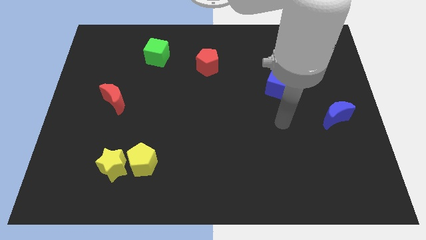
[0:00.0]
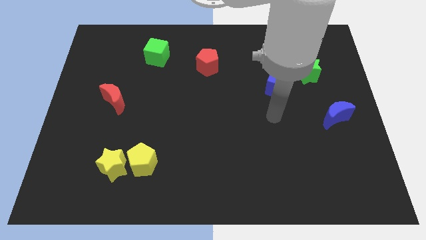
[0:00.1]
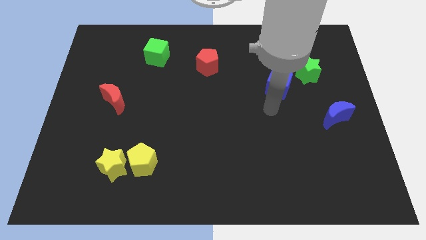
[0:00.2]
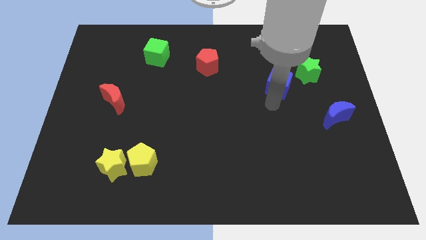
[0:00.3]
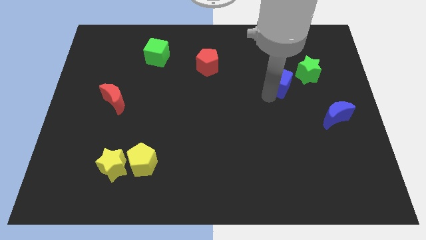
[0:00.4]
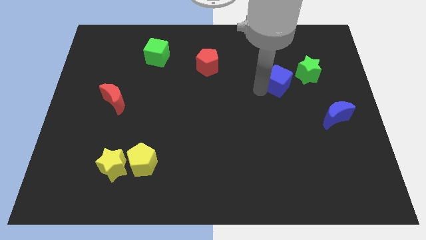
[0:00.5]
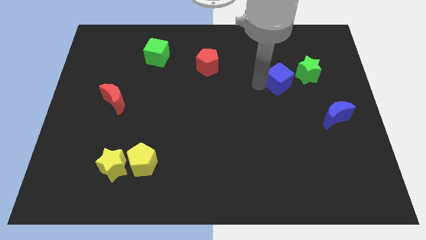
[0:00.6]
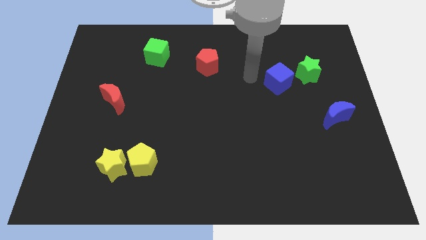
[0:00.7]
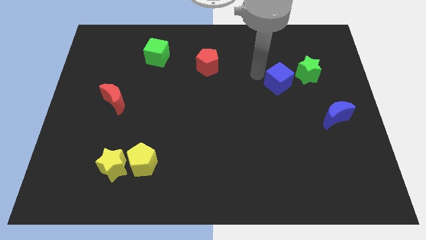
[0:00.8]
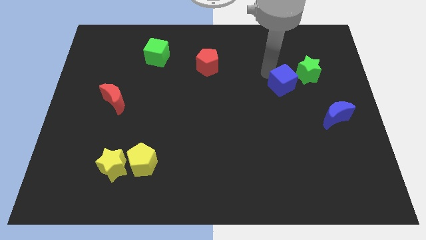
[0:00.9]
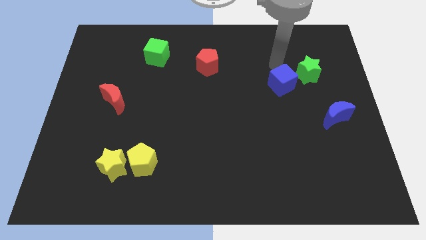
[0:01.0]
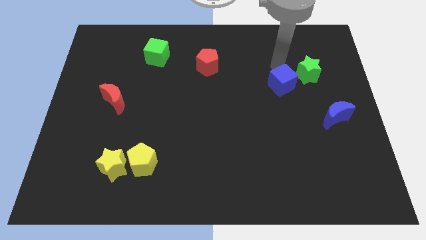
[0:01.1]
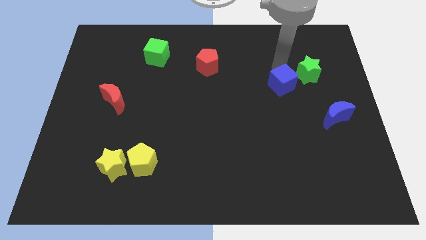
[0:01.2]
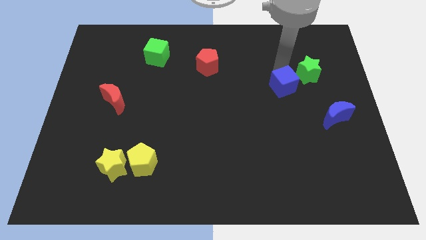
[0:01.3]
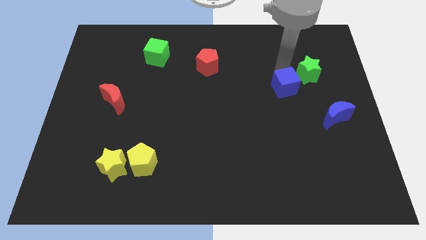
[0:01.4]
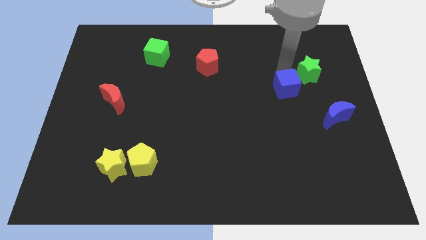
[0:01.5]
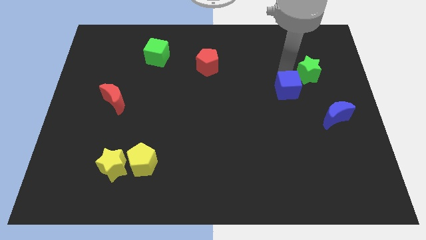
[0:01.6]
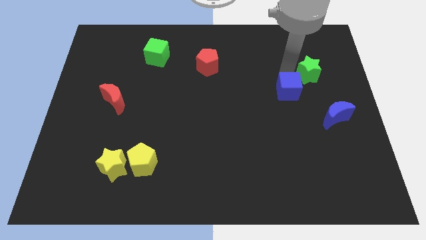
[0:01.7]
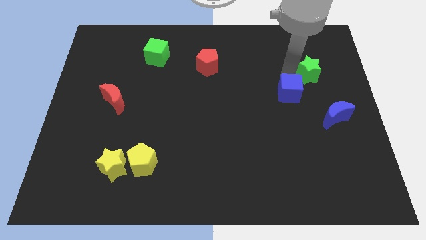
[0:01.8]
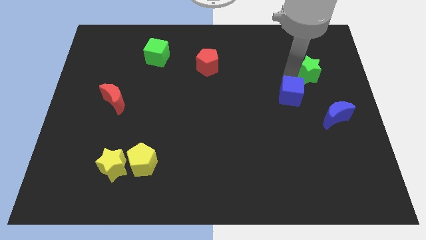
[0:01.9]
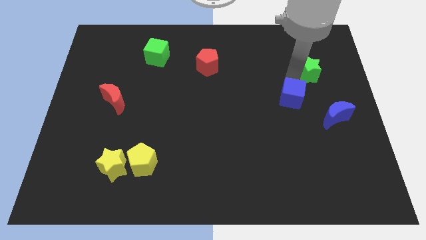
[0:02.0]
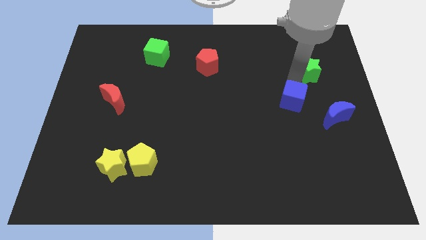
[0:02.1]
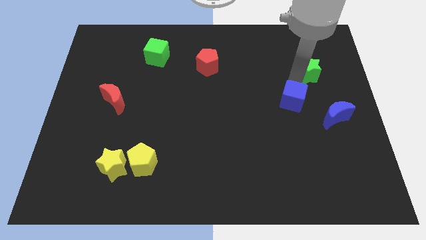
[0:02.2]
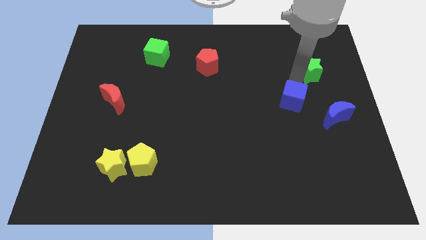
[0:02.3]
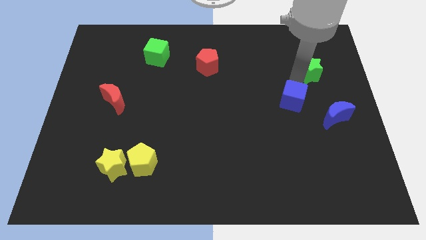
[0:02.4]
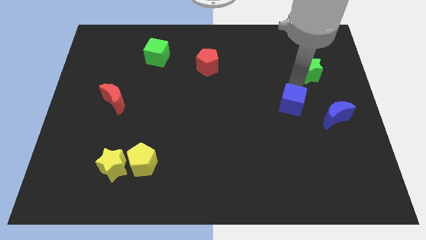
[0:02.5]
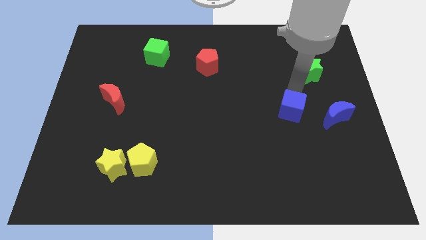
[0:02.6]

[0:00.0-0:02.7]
slightly slide the blue cube downwards

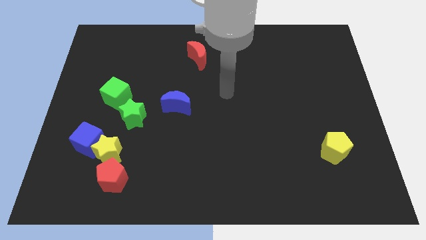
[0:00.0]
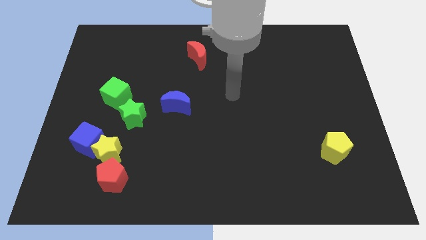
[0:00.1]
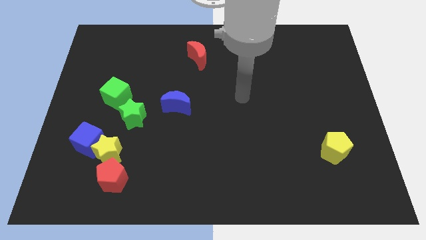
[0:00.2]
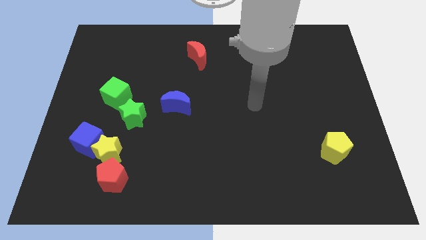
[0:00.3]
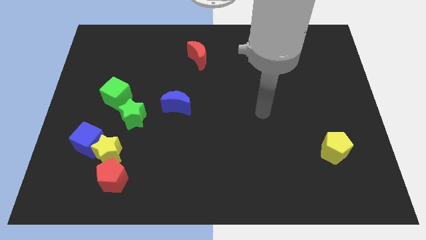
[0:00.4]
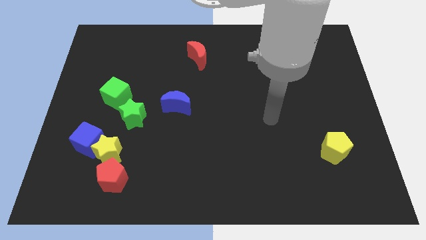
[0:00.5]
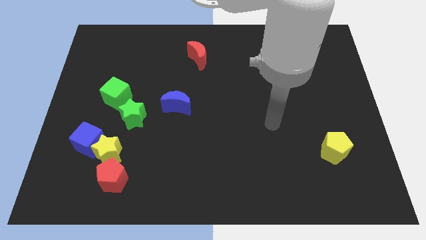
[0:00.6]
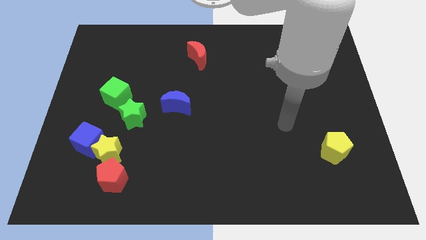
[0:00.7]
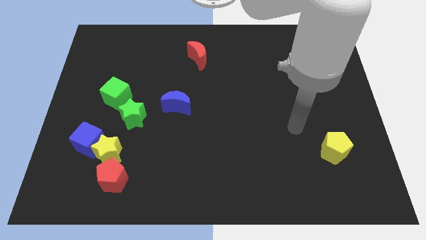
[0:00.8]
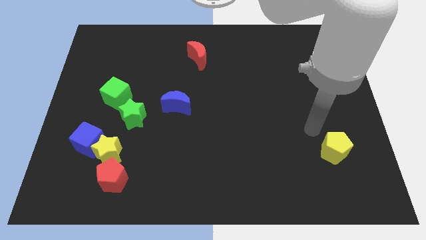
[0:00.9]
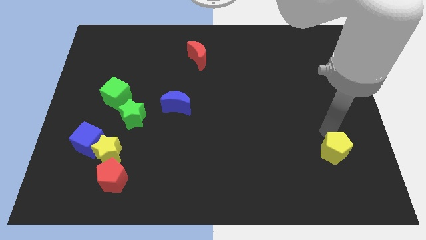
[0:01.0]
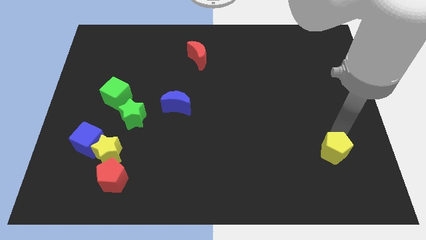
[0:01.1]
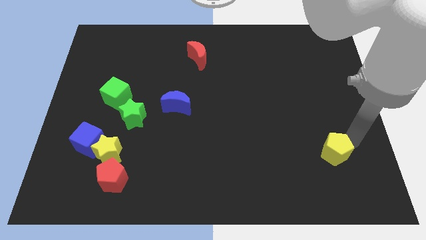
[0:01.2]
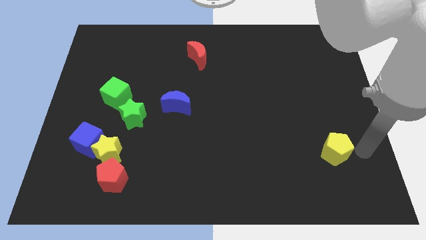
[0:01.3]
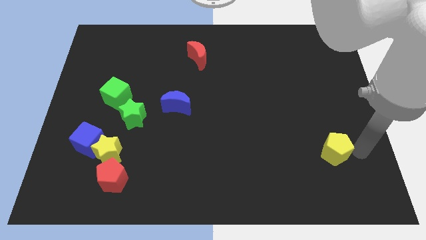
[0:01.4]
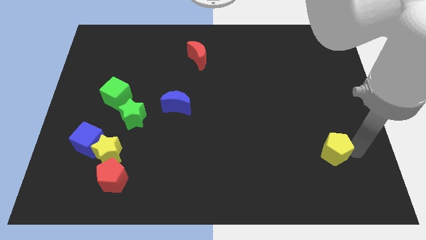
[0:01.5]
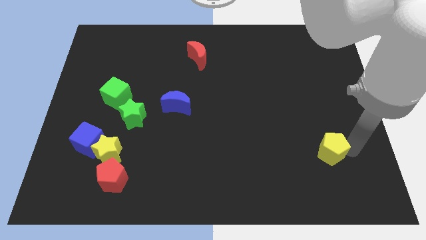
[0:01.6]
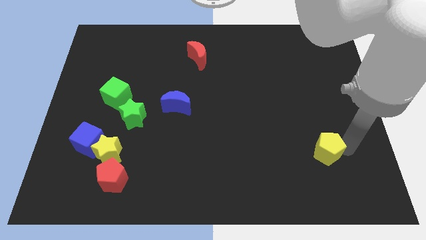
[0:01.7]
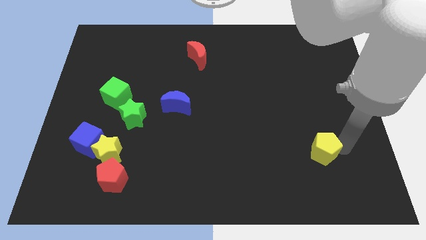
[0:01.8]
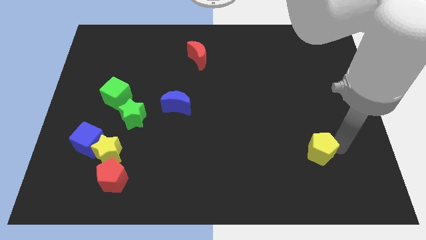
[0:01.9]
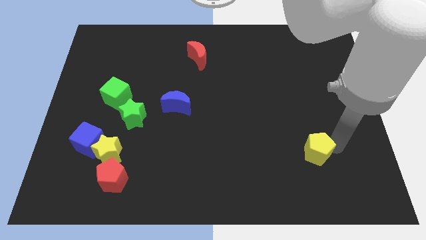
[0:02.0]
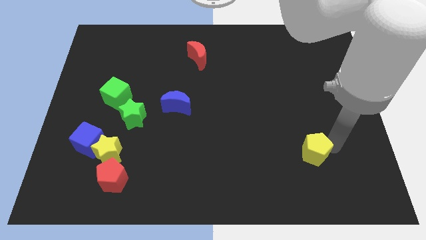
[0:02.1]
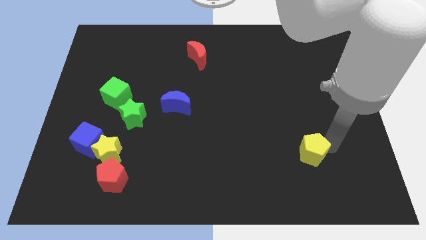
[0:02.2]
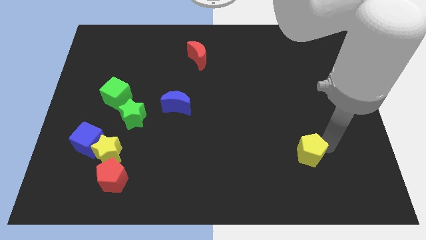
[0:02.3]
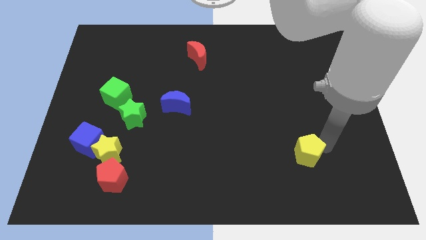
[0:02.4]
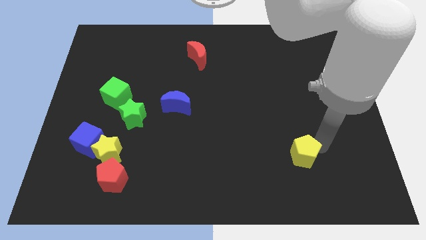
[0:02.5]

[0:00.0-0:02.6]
slightly slide the yellow pentagon left

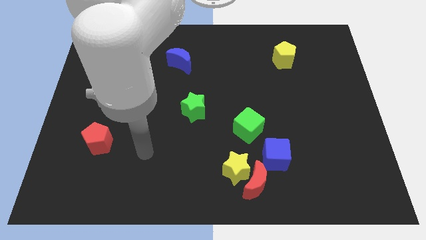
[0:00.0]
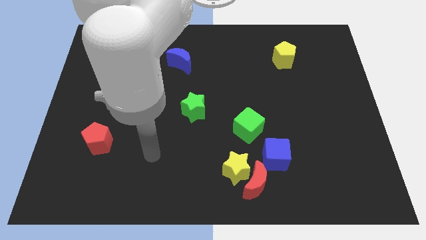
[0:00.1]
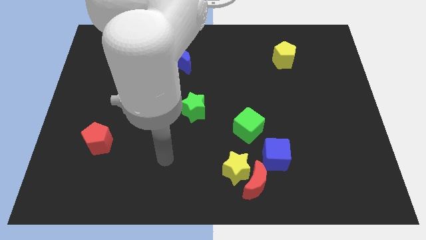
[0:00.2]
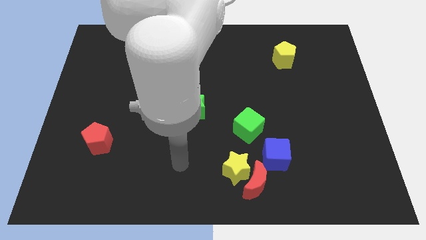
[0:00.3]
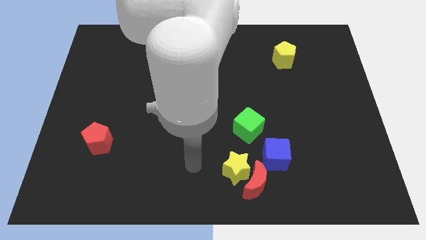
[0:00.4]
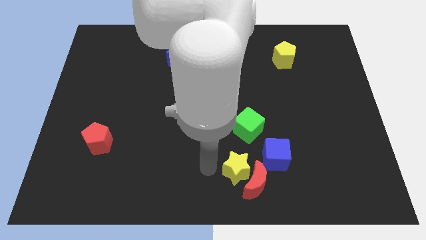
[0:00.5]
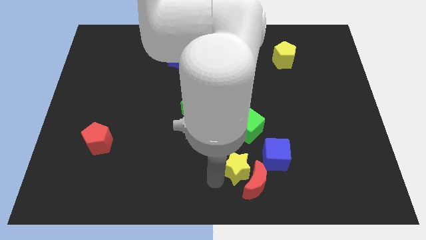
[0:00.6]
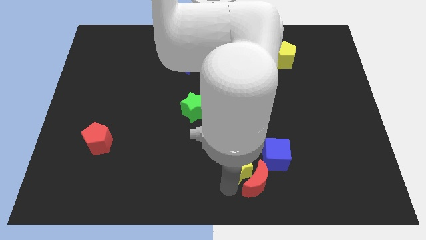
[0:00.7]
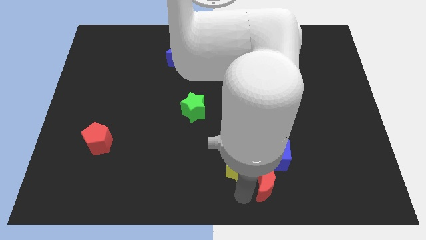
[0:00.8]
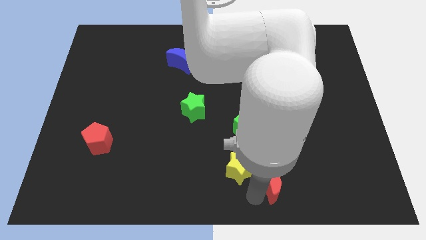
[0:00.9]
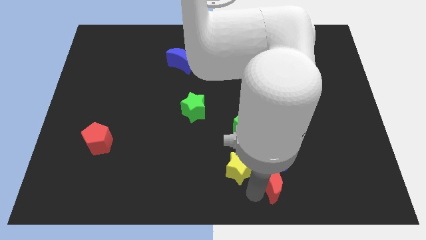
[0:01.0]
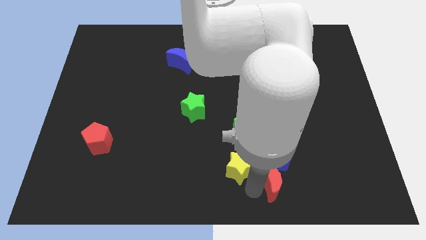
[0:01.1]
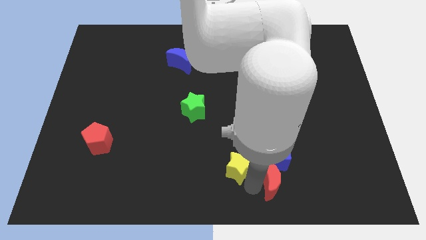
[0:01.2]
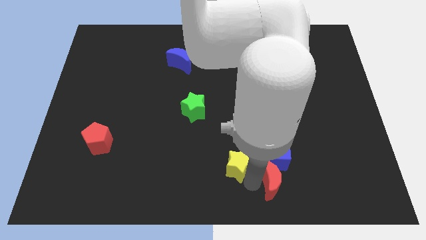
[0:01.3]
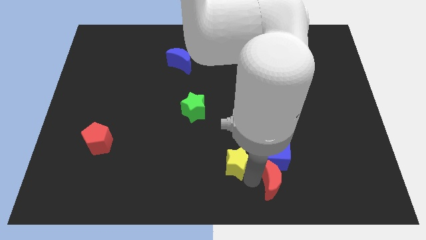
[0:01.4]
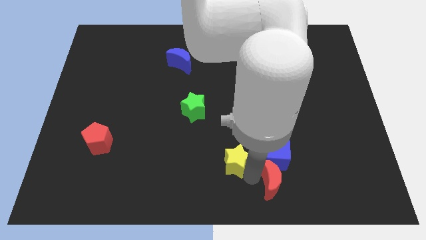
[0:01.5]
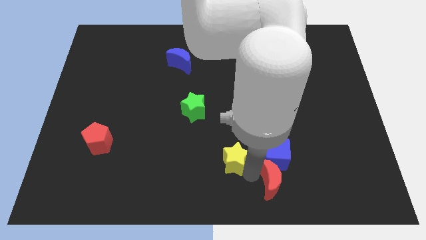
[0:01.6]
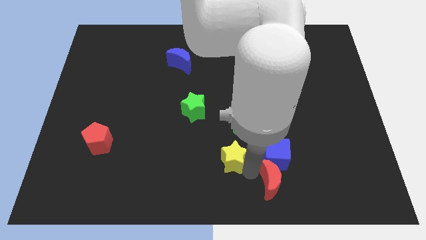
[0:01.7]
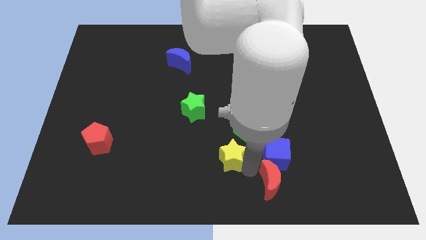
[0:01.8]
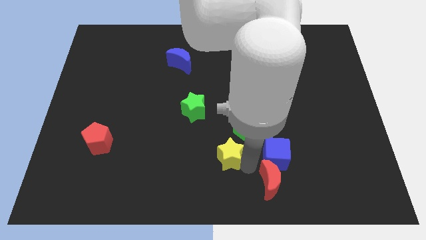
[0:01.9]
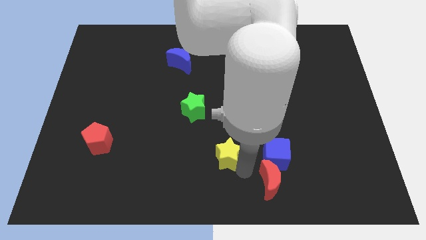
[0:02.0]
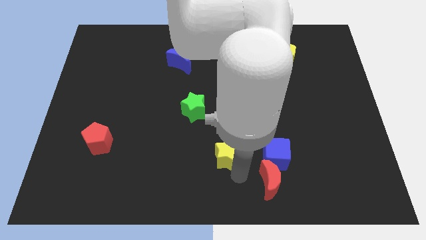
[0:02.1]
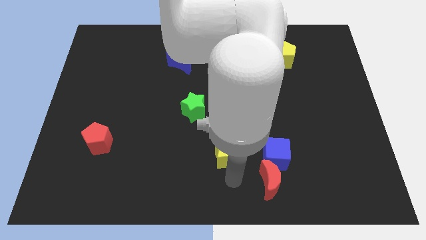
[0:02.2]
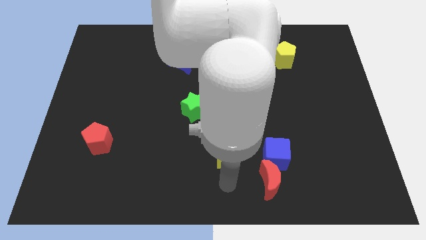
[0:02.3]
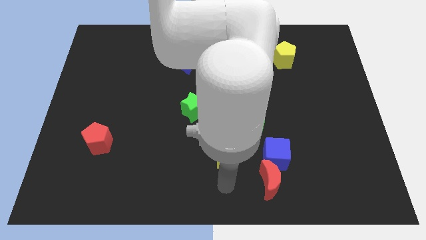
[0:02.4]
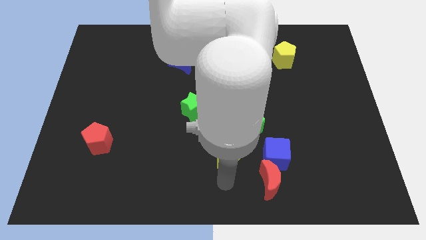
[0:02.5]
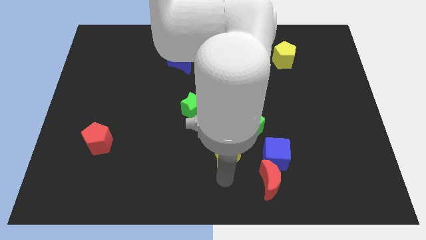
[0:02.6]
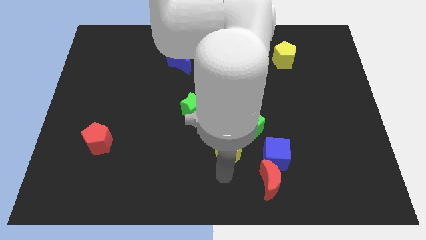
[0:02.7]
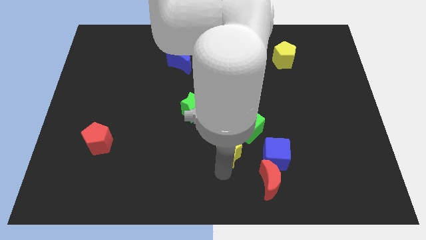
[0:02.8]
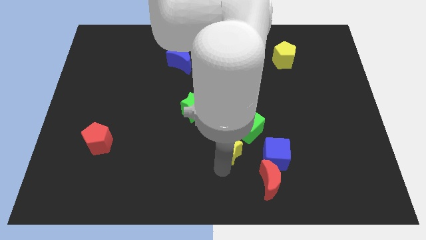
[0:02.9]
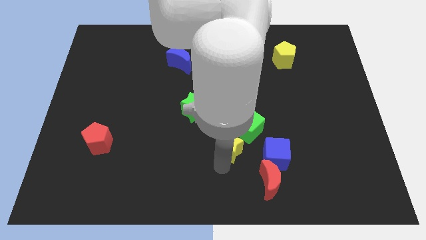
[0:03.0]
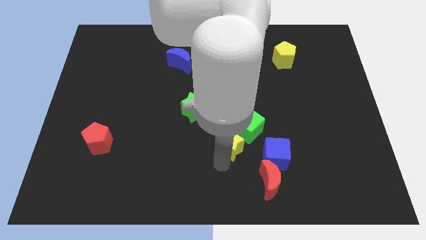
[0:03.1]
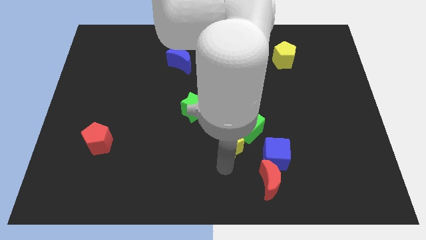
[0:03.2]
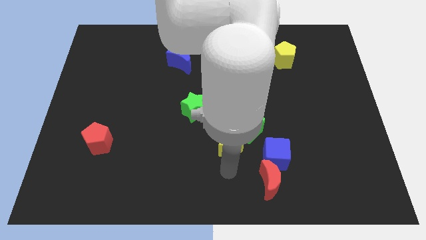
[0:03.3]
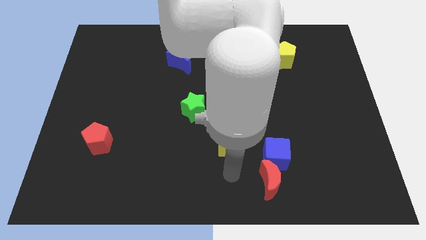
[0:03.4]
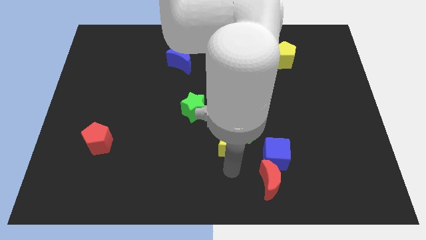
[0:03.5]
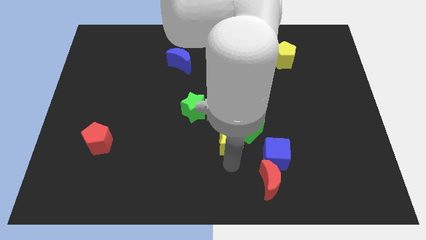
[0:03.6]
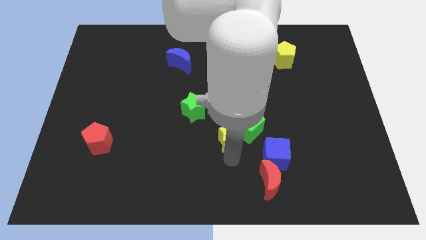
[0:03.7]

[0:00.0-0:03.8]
move the yellow star up a bit
